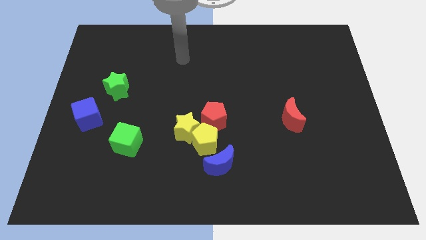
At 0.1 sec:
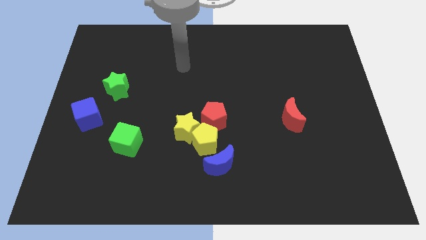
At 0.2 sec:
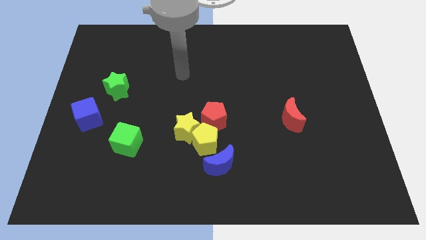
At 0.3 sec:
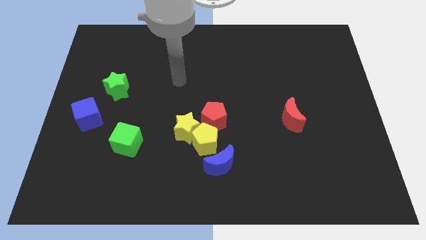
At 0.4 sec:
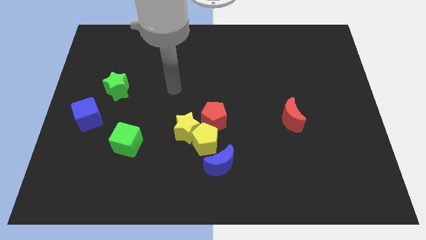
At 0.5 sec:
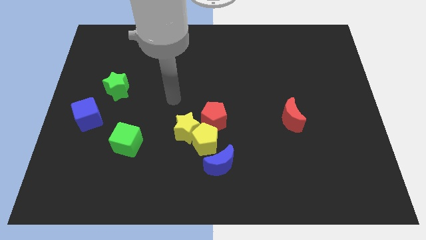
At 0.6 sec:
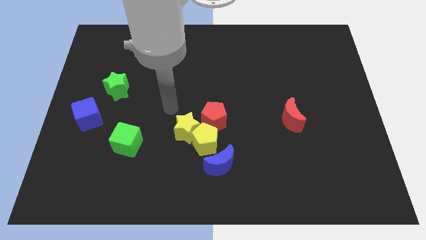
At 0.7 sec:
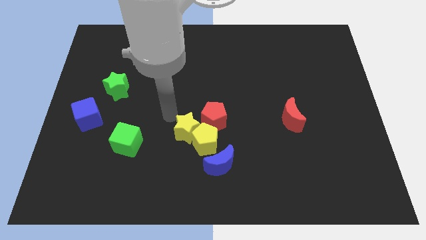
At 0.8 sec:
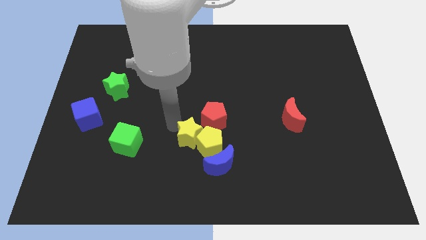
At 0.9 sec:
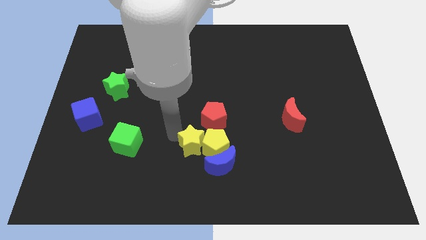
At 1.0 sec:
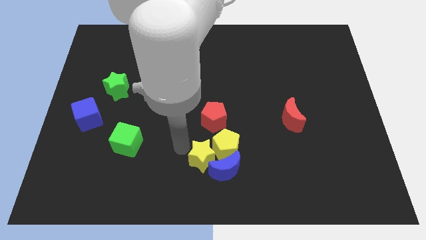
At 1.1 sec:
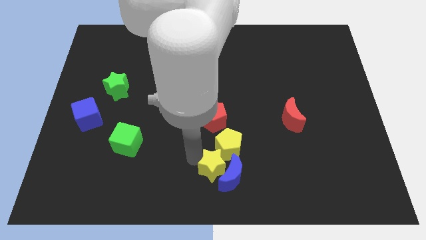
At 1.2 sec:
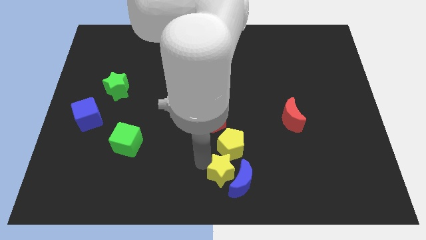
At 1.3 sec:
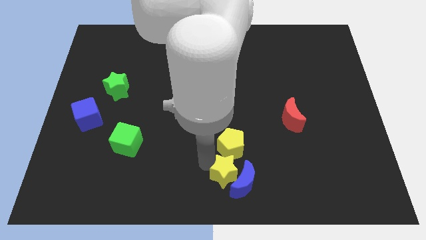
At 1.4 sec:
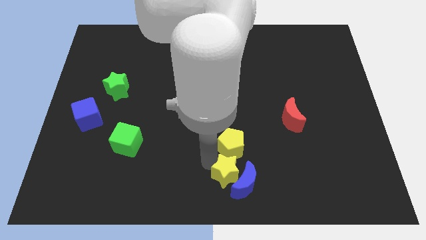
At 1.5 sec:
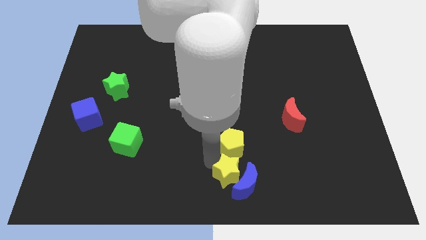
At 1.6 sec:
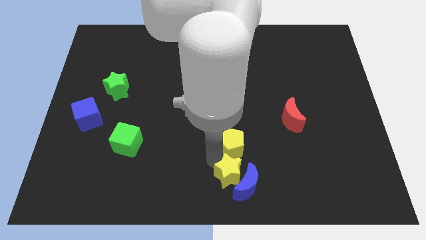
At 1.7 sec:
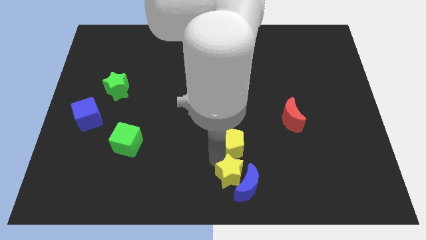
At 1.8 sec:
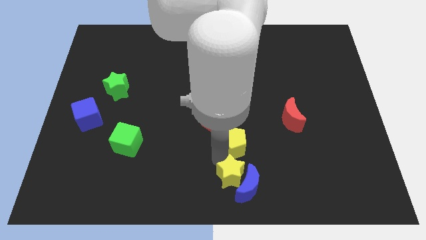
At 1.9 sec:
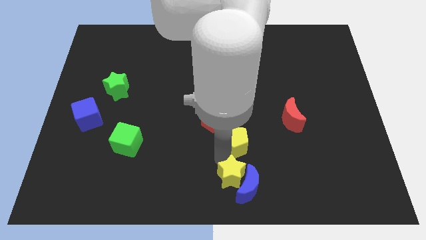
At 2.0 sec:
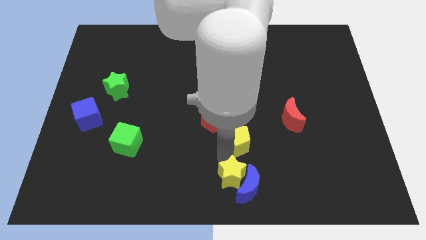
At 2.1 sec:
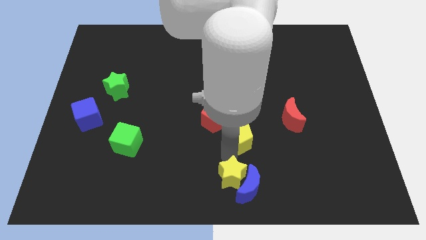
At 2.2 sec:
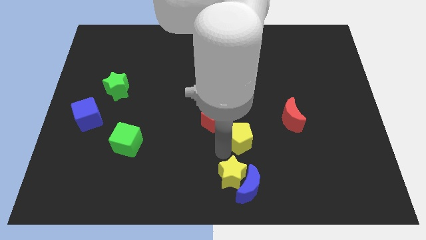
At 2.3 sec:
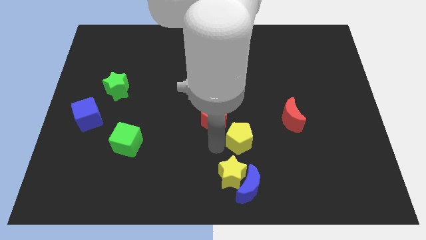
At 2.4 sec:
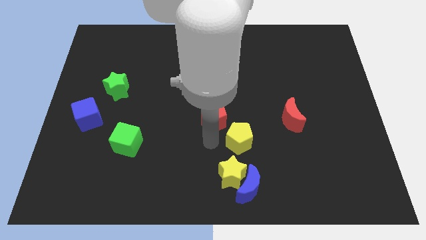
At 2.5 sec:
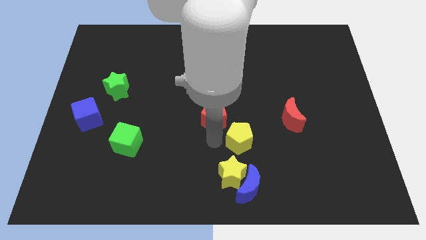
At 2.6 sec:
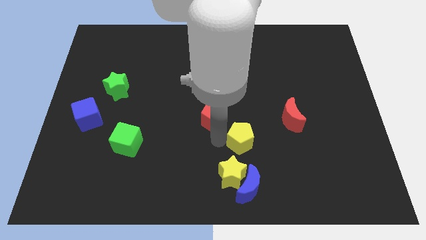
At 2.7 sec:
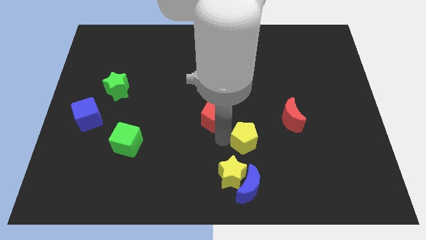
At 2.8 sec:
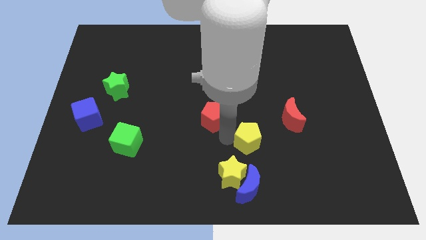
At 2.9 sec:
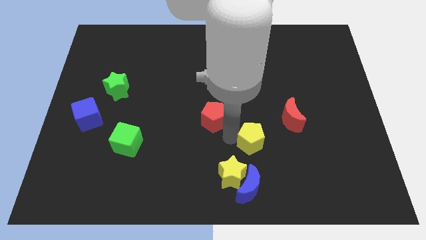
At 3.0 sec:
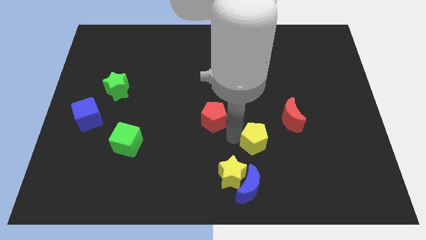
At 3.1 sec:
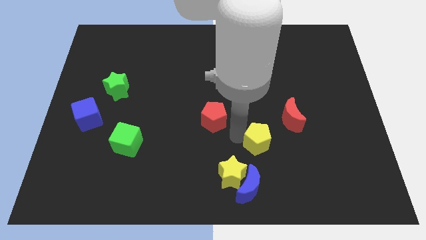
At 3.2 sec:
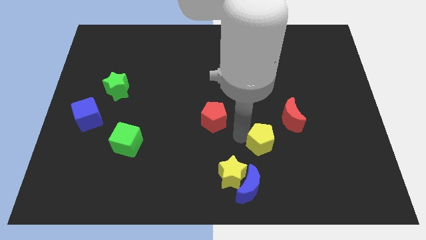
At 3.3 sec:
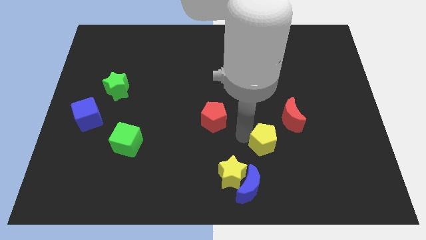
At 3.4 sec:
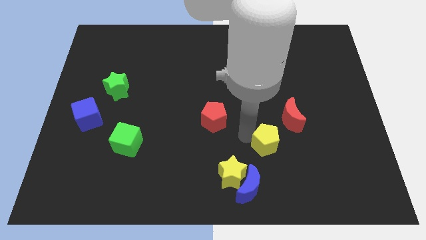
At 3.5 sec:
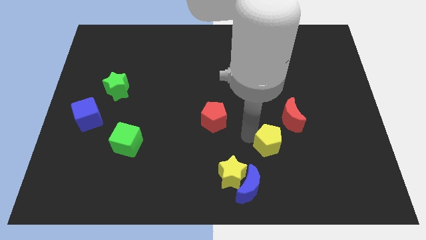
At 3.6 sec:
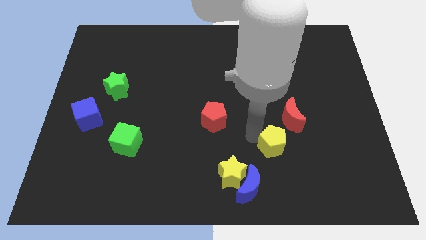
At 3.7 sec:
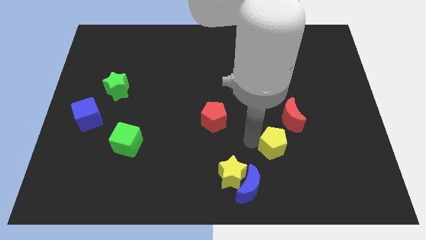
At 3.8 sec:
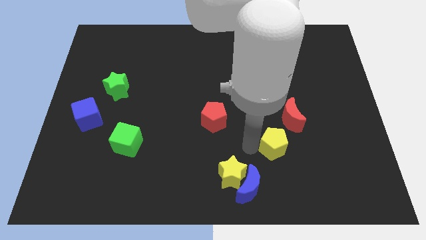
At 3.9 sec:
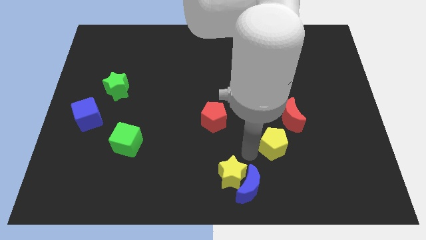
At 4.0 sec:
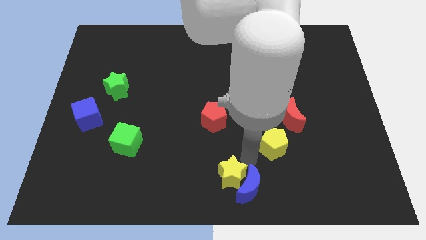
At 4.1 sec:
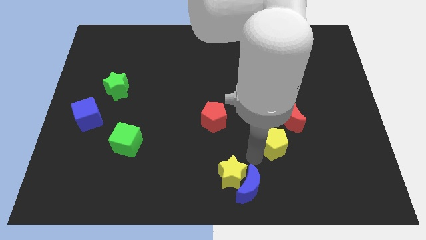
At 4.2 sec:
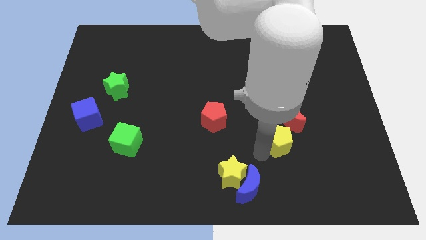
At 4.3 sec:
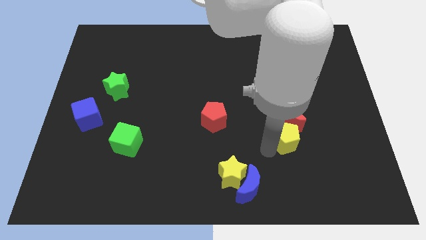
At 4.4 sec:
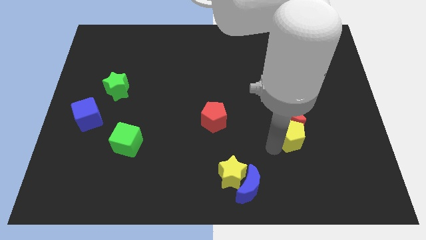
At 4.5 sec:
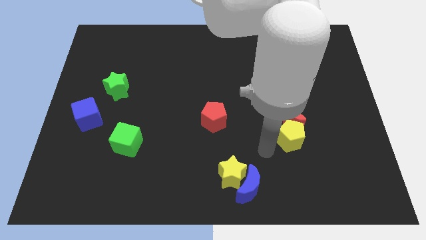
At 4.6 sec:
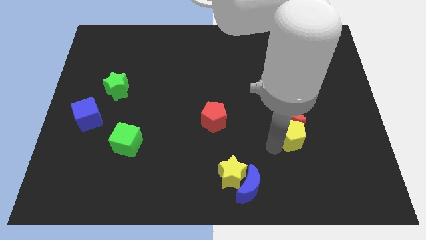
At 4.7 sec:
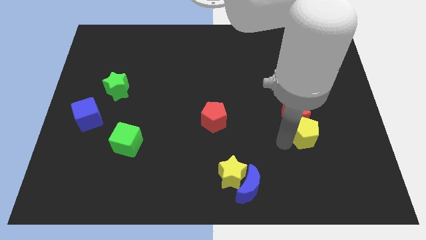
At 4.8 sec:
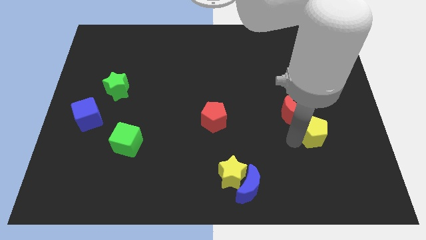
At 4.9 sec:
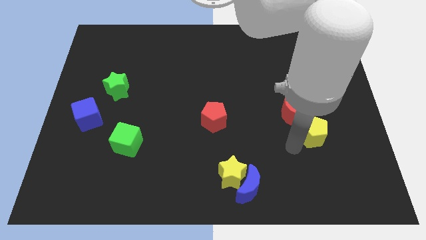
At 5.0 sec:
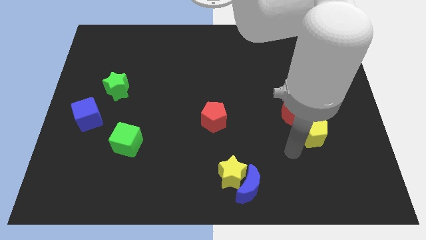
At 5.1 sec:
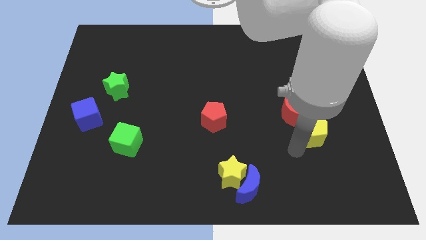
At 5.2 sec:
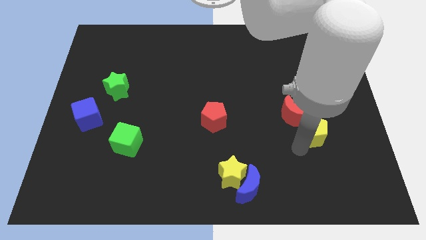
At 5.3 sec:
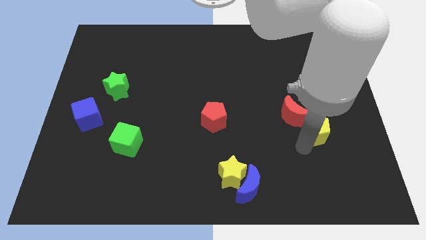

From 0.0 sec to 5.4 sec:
slide the yellow pentagon just right of the red moon

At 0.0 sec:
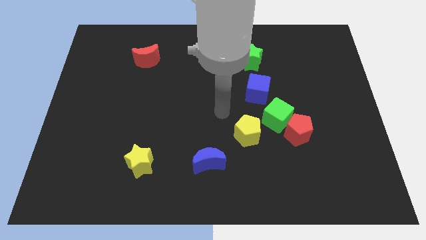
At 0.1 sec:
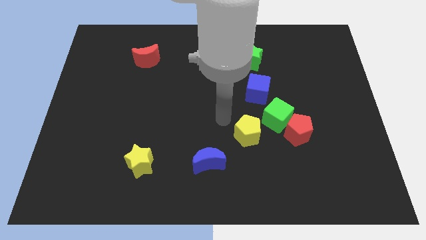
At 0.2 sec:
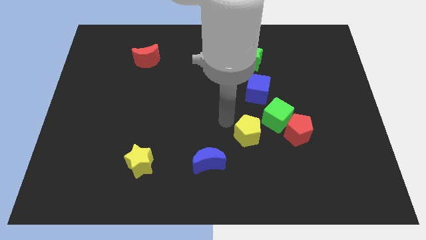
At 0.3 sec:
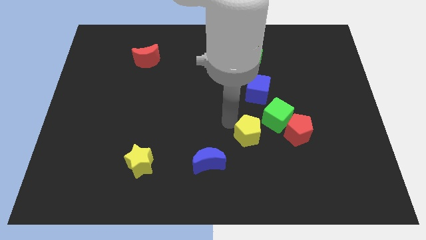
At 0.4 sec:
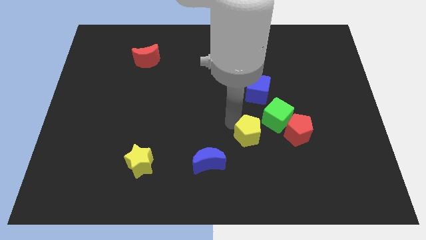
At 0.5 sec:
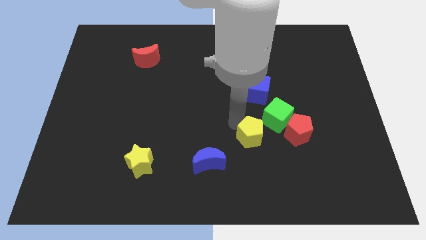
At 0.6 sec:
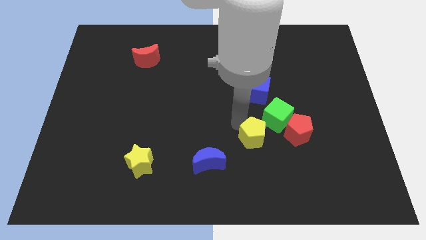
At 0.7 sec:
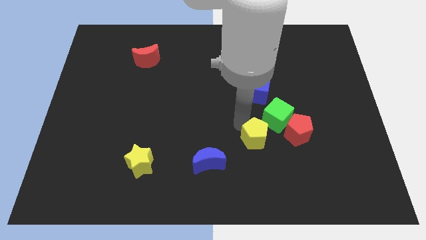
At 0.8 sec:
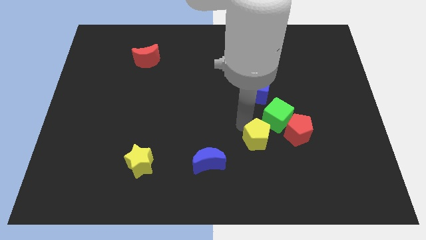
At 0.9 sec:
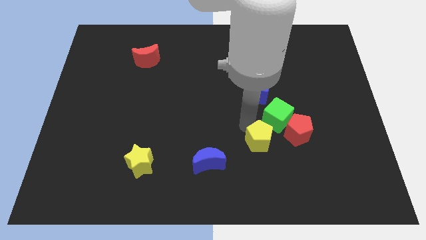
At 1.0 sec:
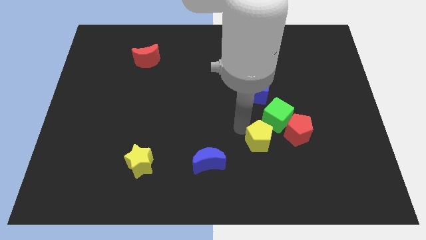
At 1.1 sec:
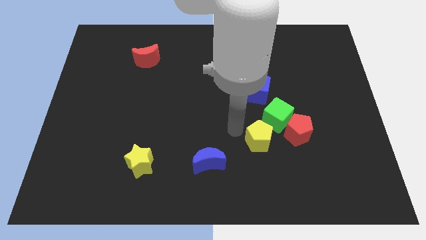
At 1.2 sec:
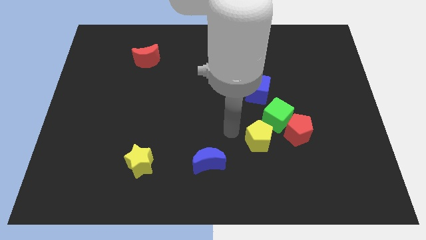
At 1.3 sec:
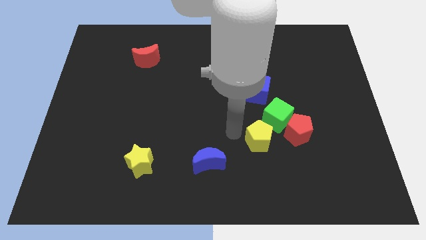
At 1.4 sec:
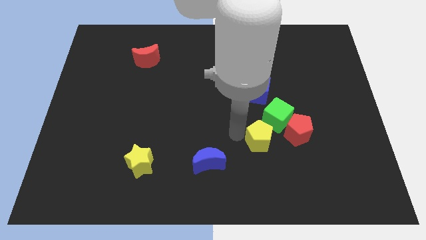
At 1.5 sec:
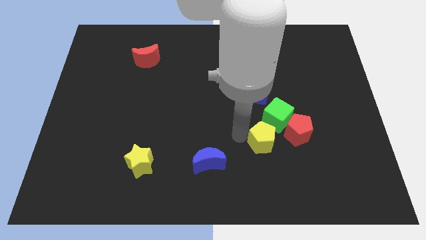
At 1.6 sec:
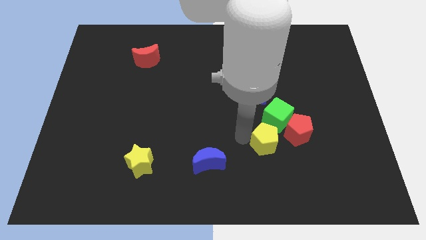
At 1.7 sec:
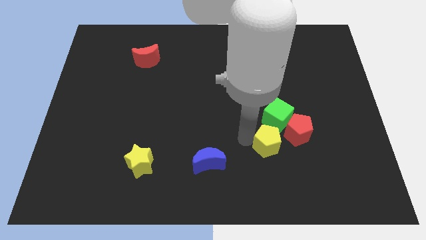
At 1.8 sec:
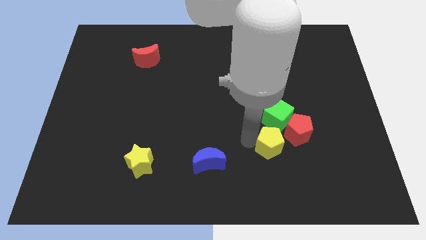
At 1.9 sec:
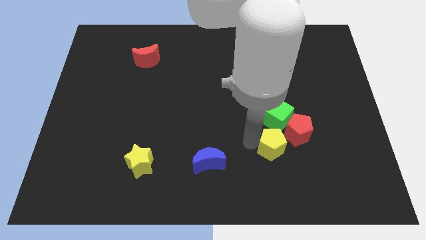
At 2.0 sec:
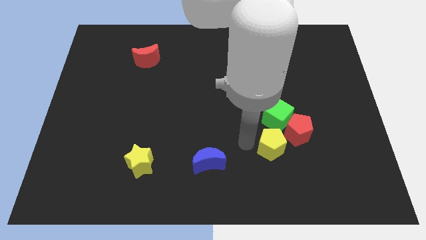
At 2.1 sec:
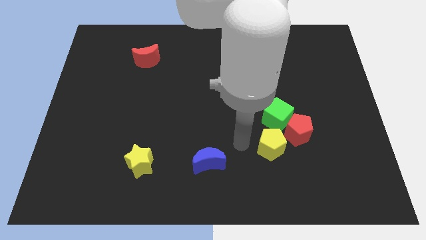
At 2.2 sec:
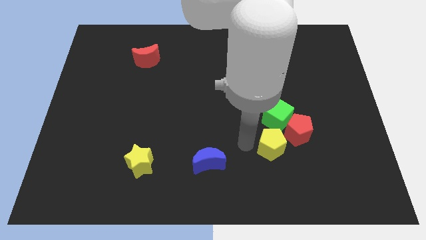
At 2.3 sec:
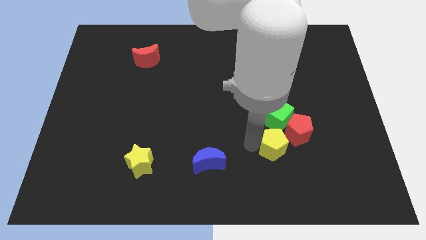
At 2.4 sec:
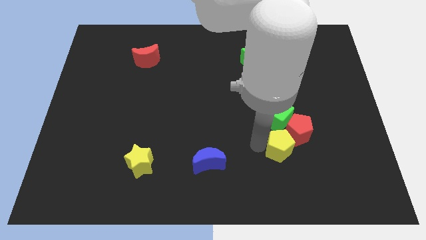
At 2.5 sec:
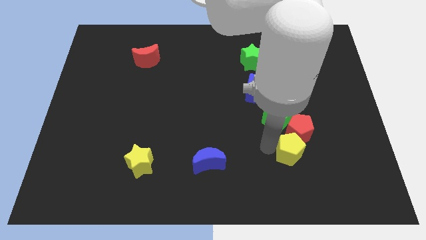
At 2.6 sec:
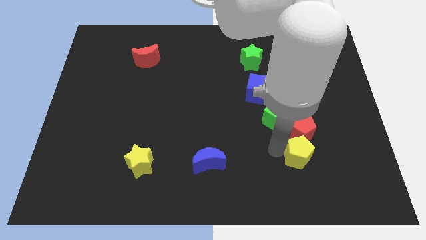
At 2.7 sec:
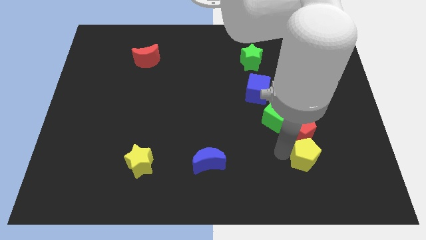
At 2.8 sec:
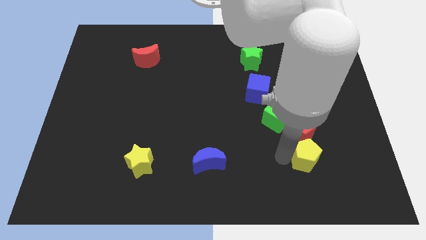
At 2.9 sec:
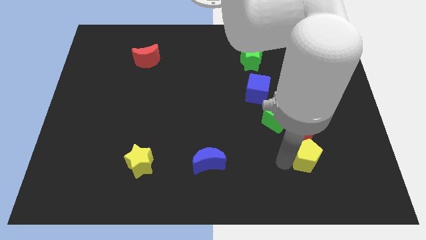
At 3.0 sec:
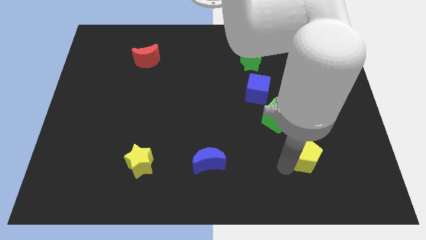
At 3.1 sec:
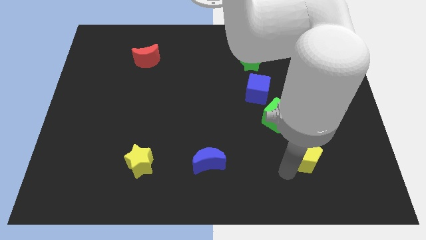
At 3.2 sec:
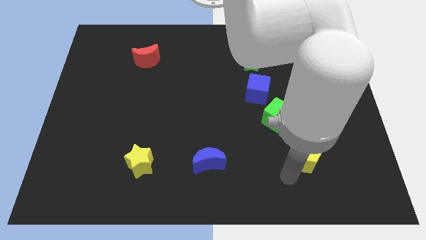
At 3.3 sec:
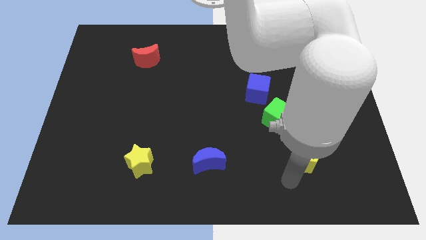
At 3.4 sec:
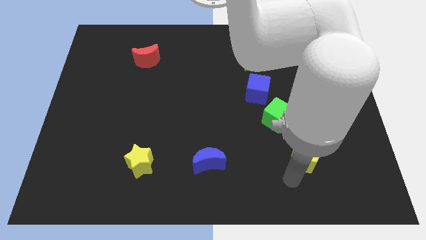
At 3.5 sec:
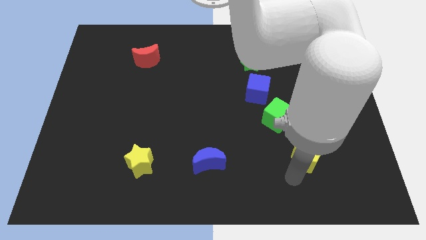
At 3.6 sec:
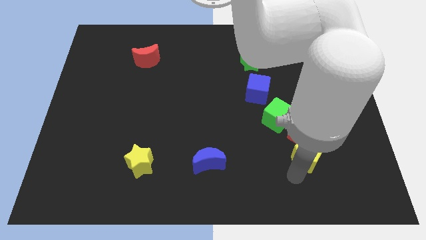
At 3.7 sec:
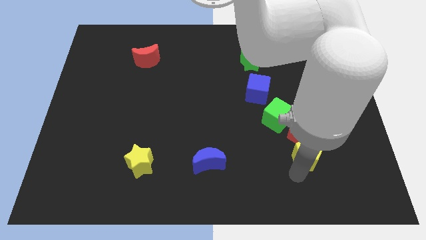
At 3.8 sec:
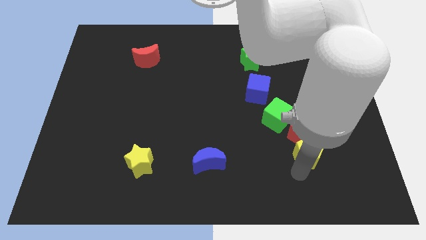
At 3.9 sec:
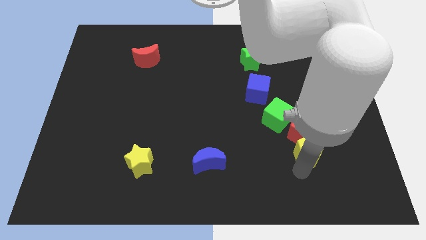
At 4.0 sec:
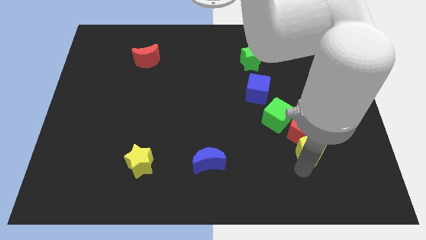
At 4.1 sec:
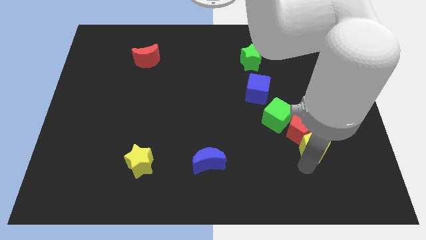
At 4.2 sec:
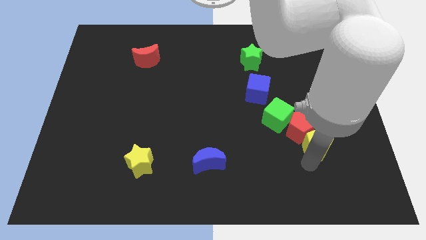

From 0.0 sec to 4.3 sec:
move the yellow pentagon to the right of the red pentagon
